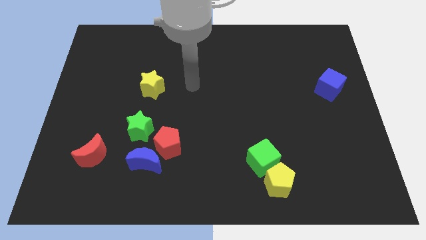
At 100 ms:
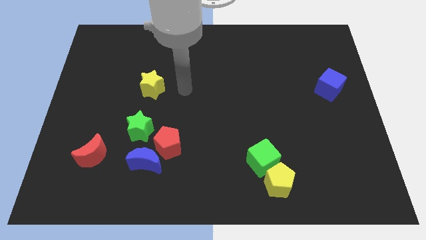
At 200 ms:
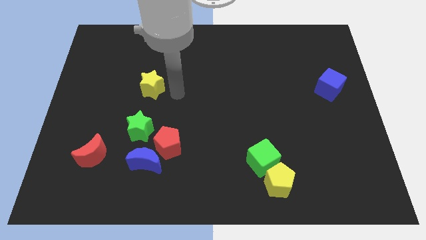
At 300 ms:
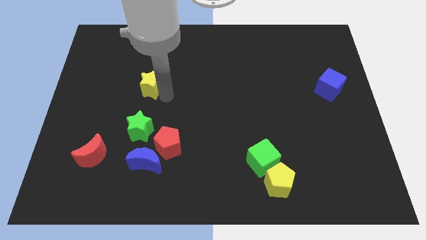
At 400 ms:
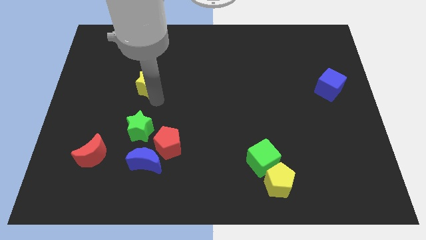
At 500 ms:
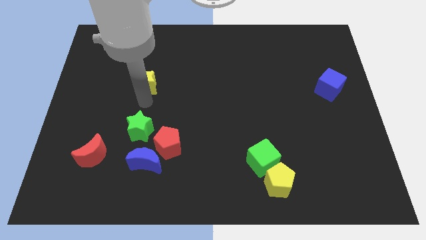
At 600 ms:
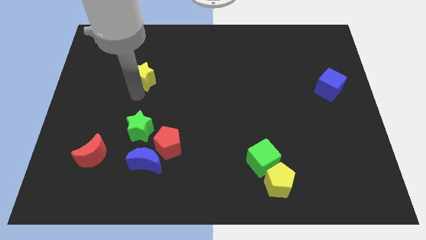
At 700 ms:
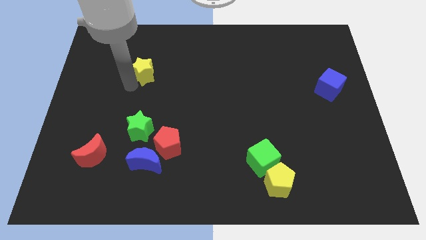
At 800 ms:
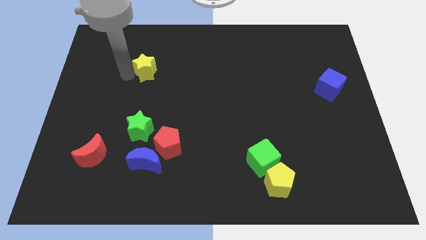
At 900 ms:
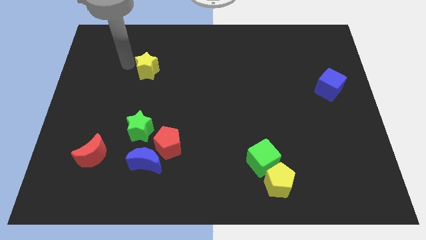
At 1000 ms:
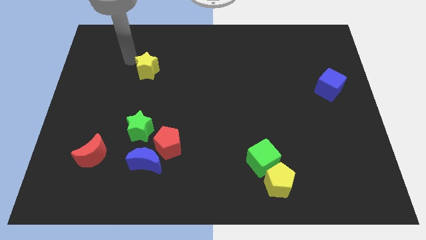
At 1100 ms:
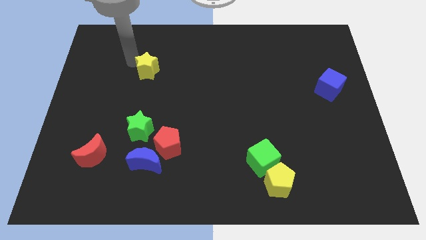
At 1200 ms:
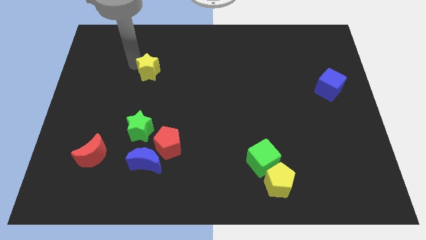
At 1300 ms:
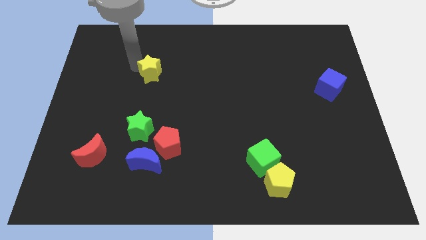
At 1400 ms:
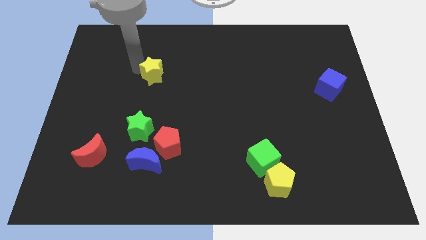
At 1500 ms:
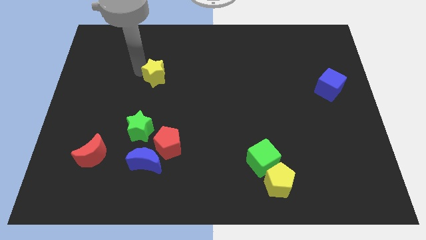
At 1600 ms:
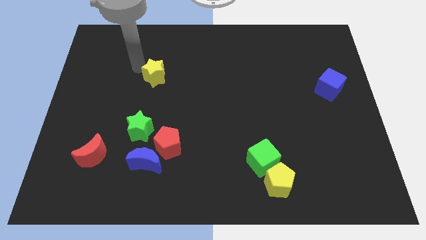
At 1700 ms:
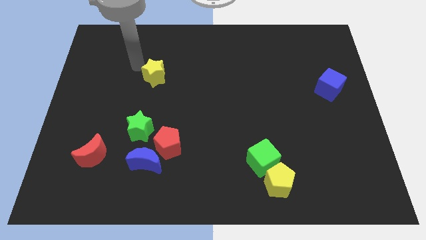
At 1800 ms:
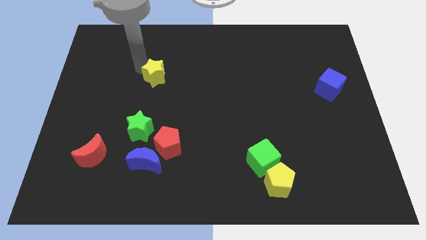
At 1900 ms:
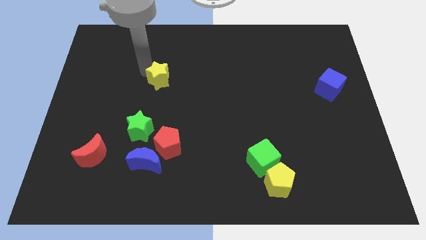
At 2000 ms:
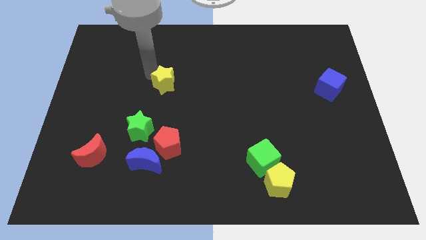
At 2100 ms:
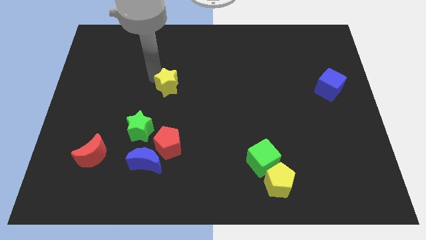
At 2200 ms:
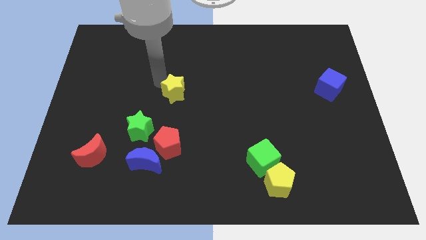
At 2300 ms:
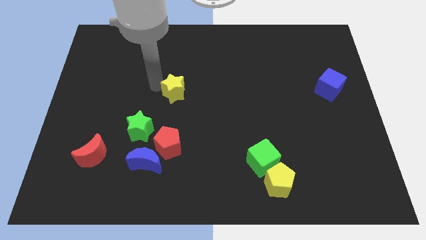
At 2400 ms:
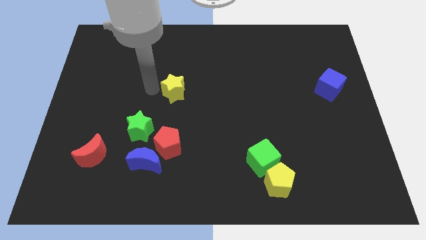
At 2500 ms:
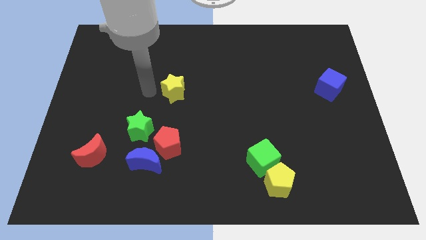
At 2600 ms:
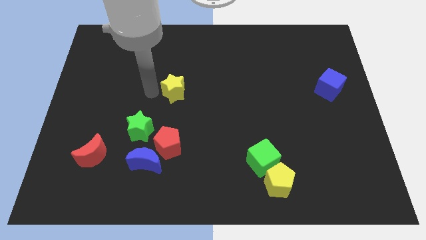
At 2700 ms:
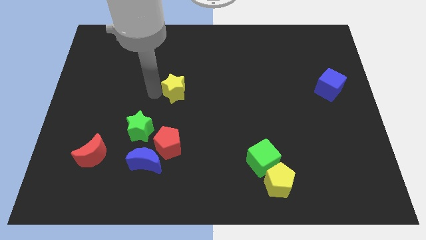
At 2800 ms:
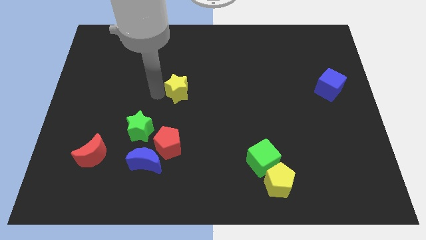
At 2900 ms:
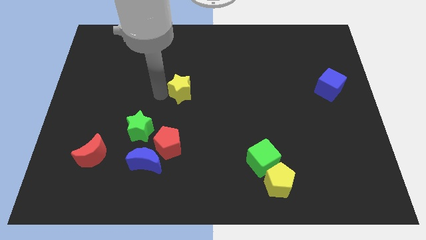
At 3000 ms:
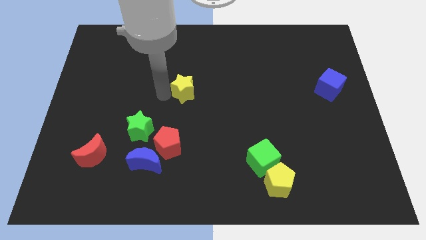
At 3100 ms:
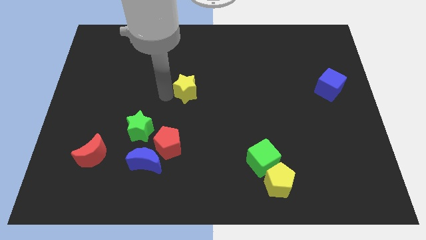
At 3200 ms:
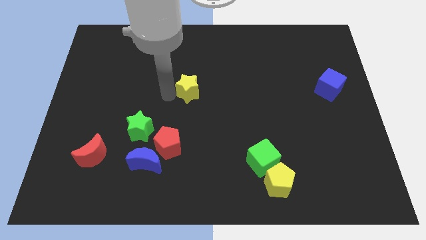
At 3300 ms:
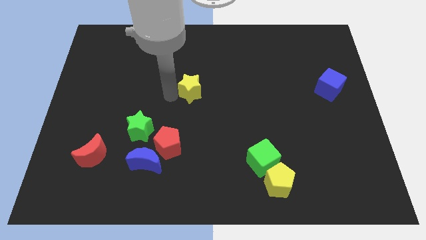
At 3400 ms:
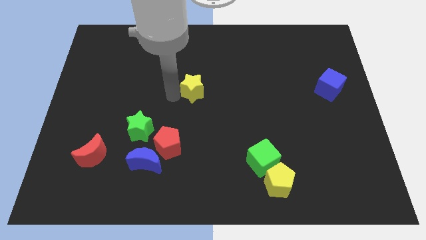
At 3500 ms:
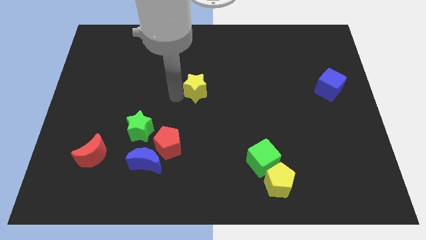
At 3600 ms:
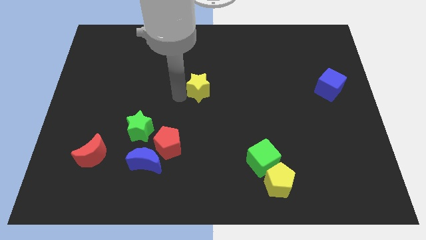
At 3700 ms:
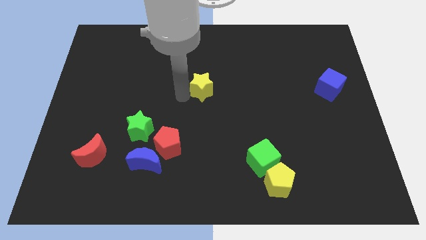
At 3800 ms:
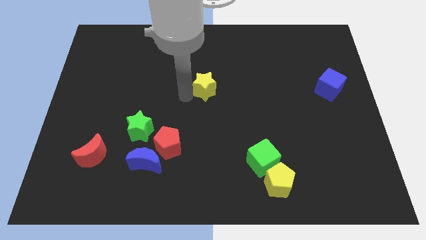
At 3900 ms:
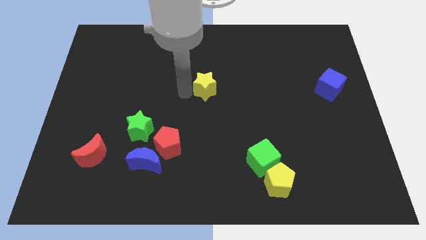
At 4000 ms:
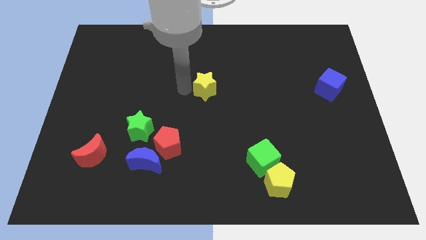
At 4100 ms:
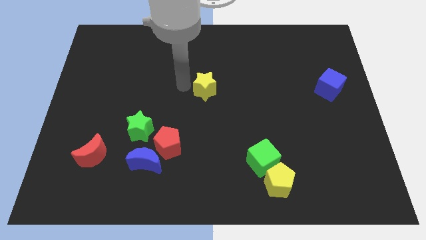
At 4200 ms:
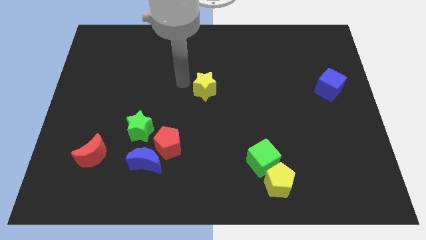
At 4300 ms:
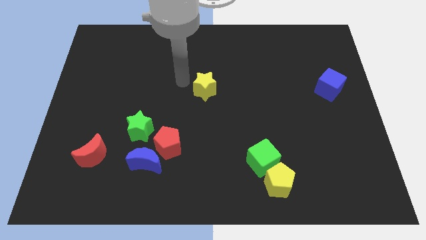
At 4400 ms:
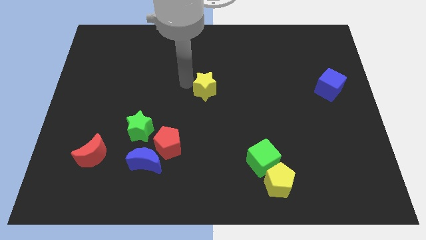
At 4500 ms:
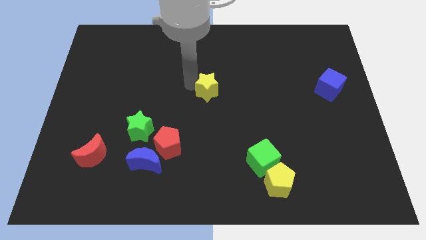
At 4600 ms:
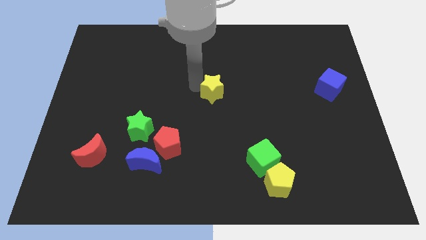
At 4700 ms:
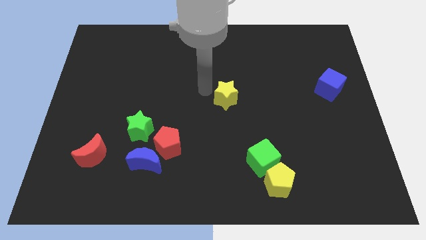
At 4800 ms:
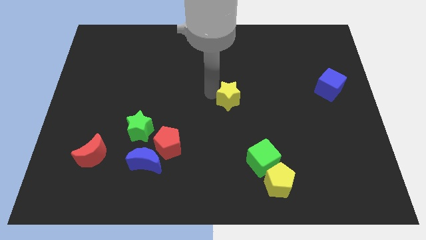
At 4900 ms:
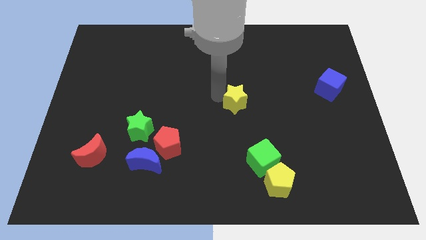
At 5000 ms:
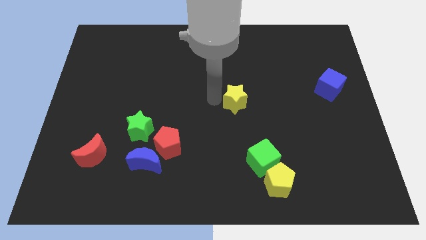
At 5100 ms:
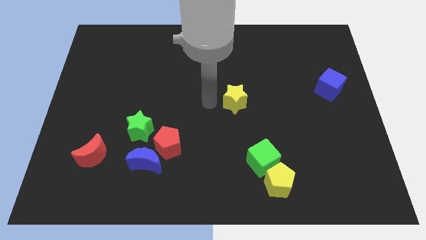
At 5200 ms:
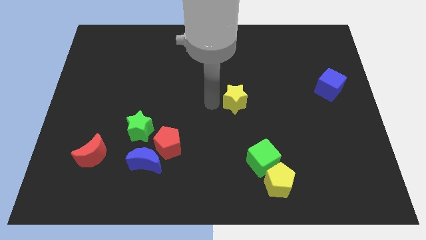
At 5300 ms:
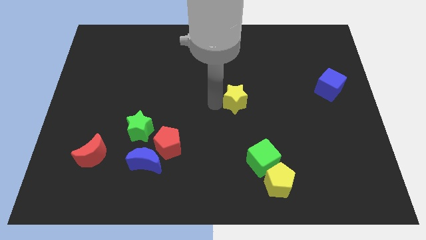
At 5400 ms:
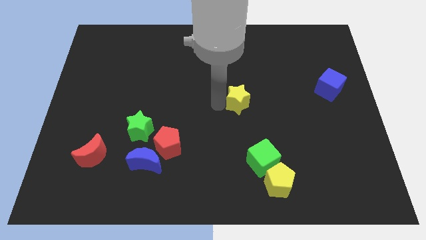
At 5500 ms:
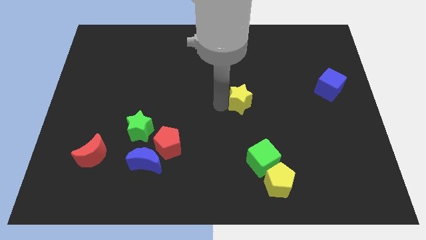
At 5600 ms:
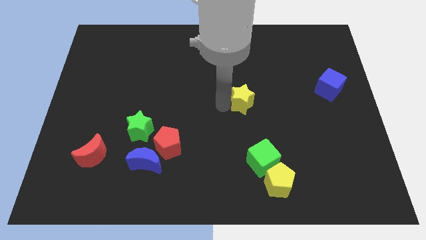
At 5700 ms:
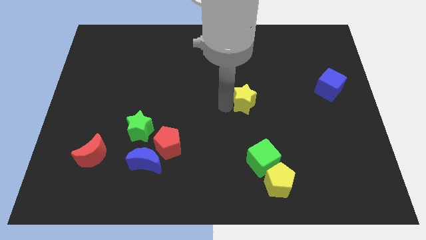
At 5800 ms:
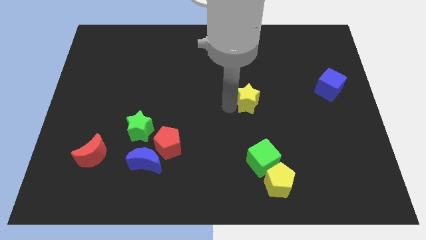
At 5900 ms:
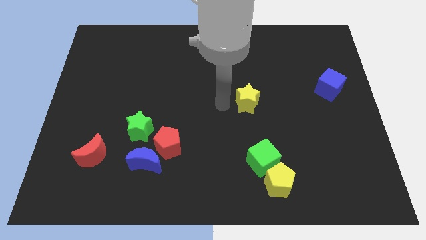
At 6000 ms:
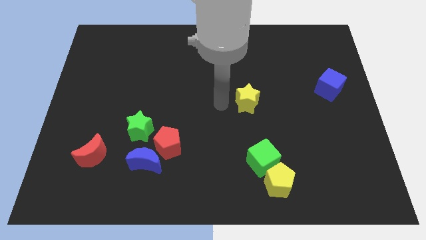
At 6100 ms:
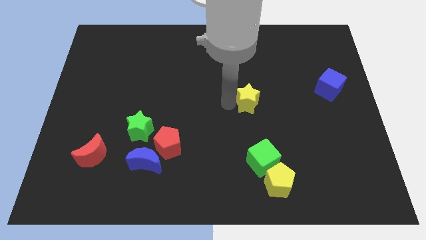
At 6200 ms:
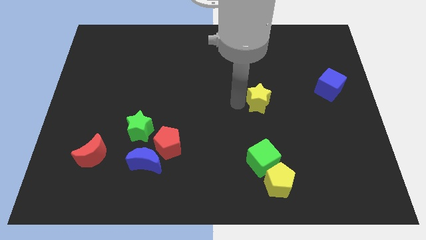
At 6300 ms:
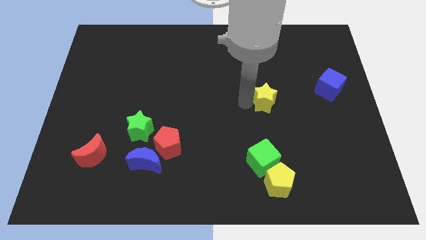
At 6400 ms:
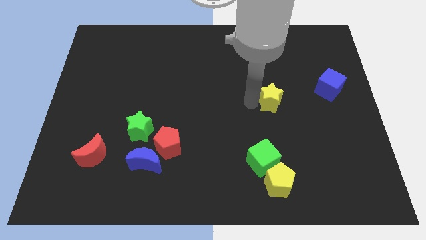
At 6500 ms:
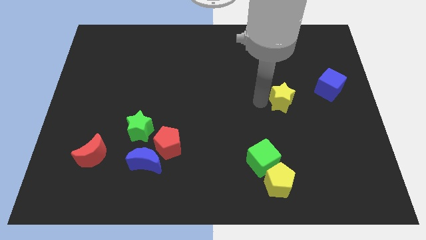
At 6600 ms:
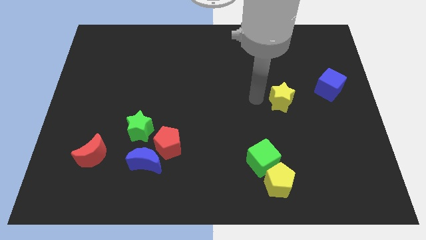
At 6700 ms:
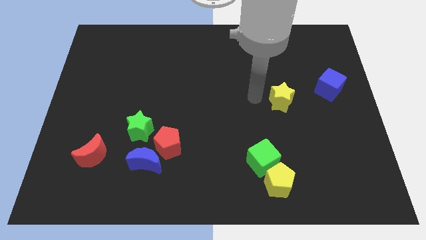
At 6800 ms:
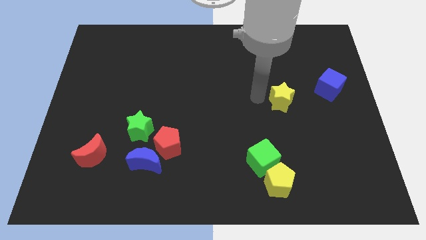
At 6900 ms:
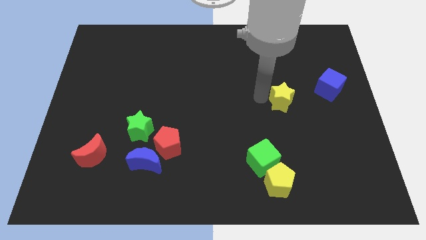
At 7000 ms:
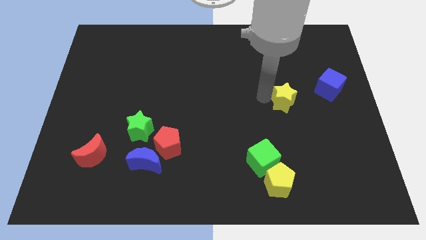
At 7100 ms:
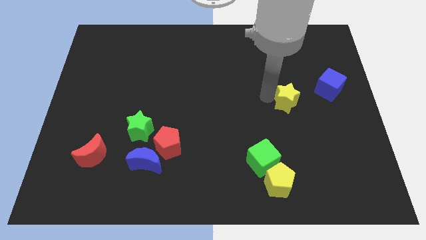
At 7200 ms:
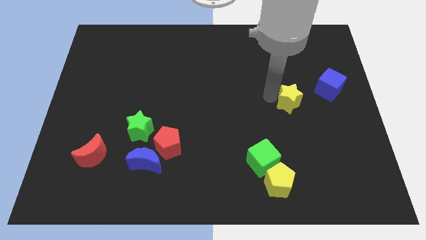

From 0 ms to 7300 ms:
push the yellow star to the bottom left of the blue cube
